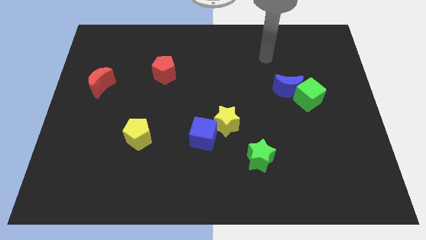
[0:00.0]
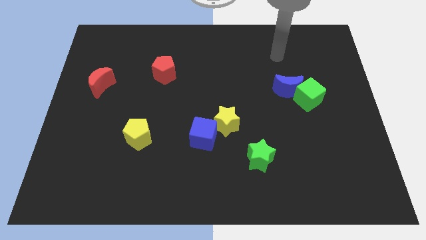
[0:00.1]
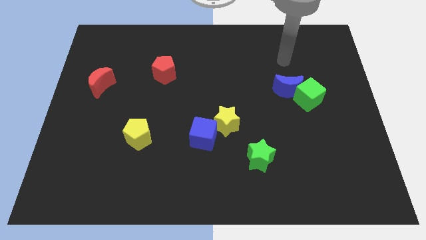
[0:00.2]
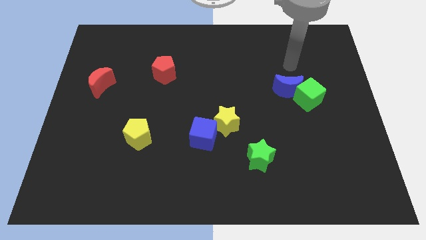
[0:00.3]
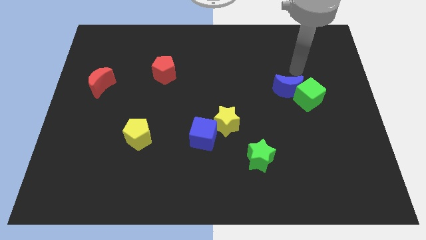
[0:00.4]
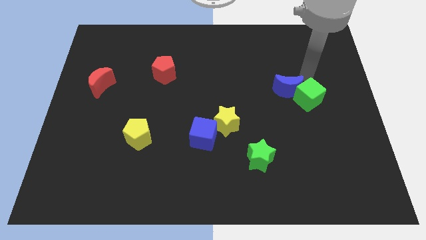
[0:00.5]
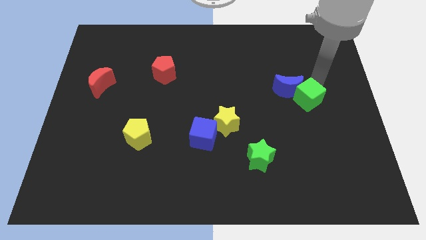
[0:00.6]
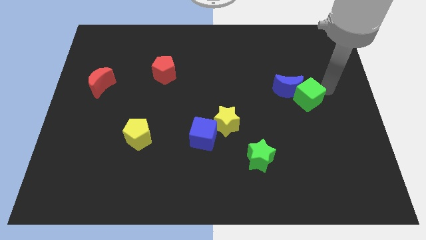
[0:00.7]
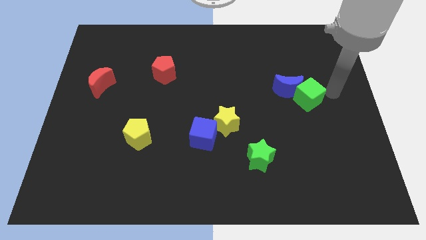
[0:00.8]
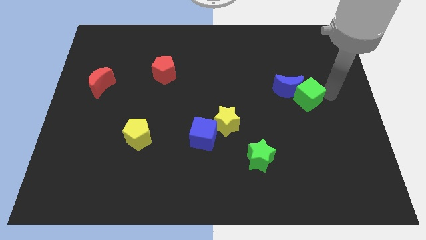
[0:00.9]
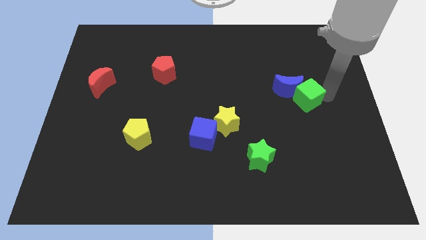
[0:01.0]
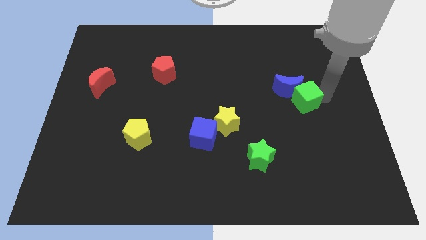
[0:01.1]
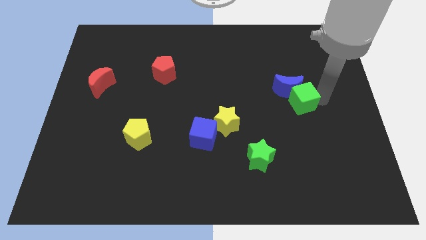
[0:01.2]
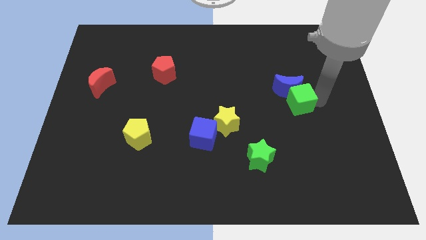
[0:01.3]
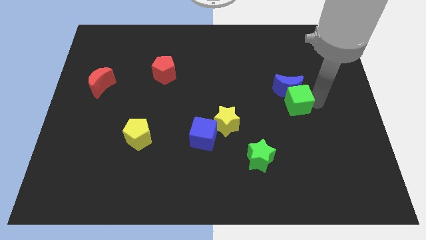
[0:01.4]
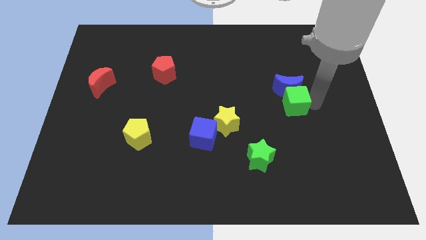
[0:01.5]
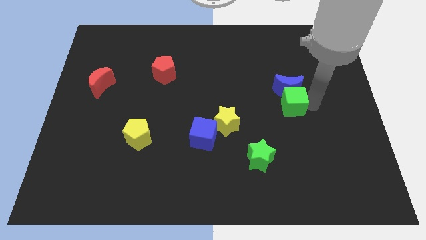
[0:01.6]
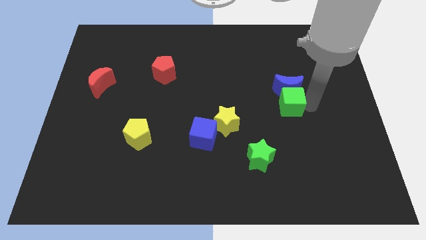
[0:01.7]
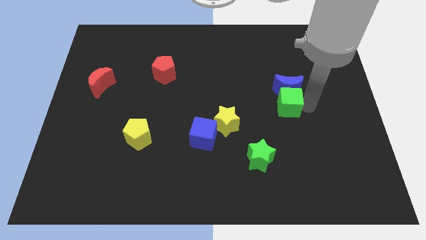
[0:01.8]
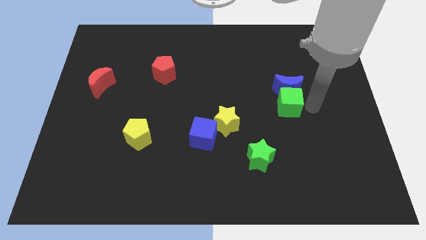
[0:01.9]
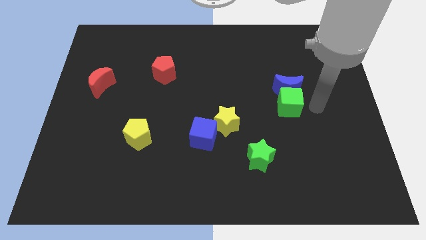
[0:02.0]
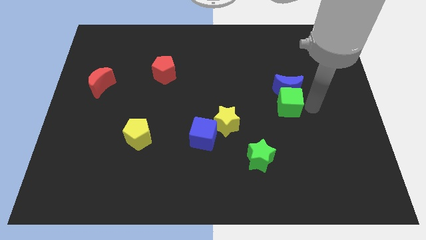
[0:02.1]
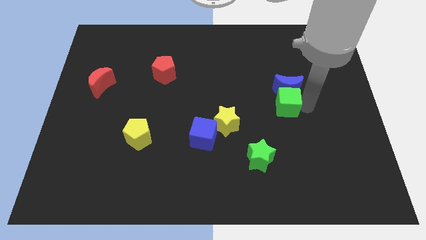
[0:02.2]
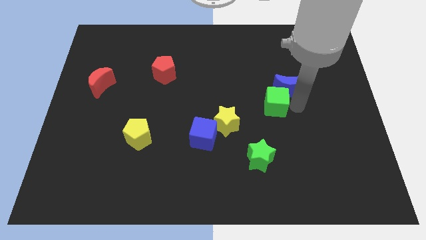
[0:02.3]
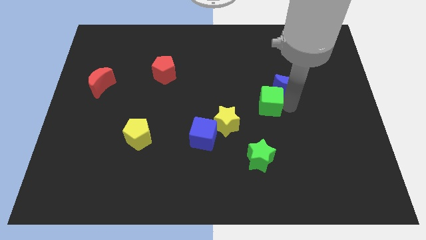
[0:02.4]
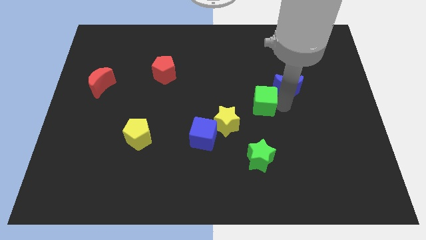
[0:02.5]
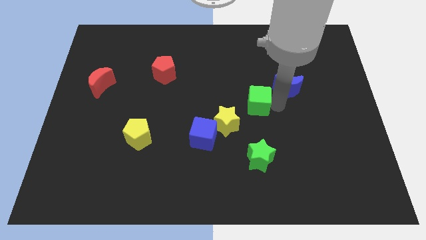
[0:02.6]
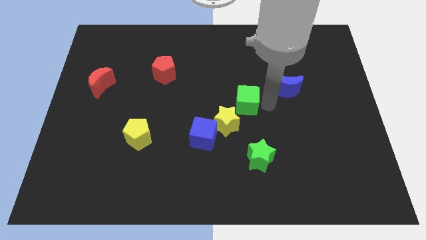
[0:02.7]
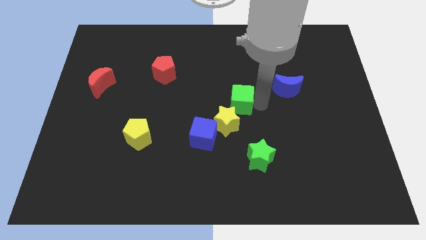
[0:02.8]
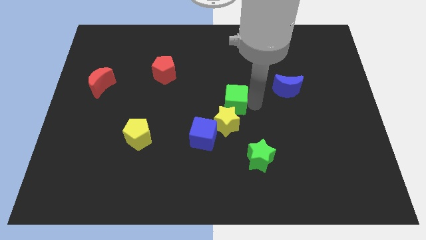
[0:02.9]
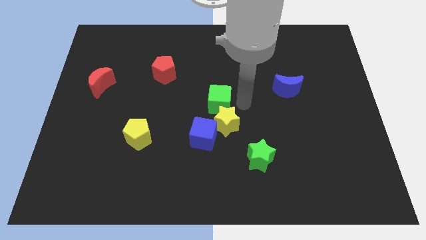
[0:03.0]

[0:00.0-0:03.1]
slide the green cube to the left

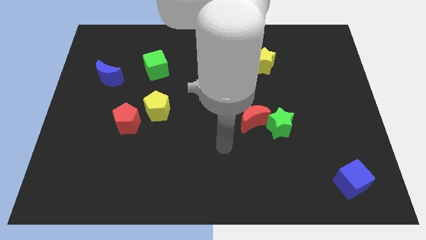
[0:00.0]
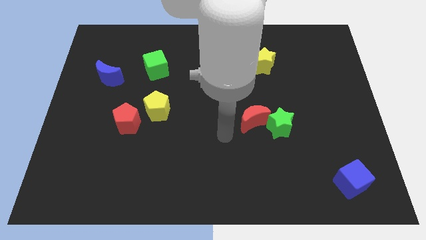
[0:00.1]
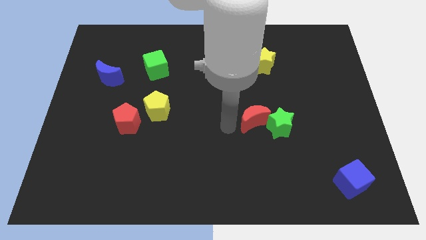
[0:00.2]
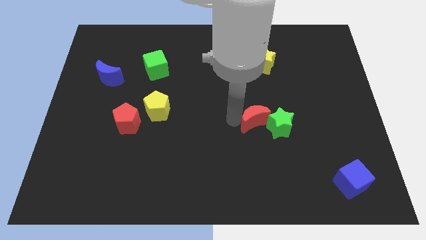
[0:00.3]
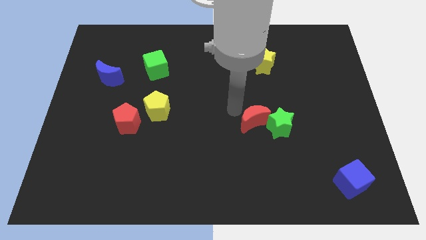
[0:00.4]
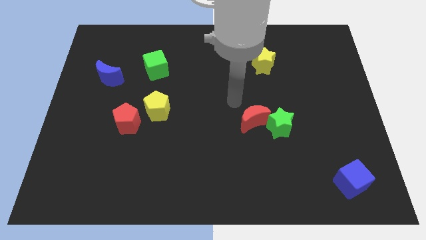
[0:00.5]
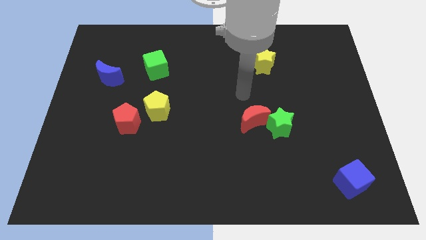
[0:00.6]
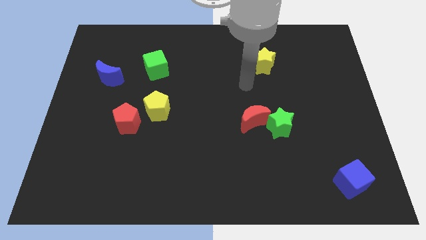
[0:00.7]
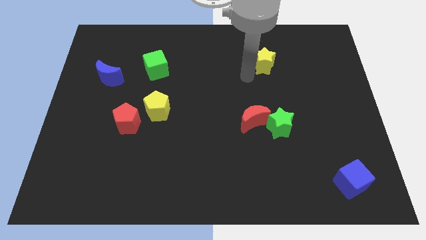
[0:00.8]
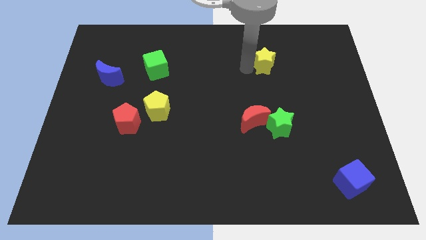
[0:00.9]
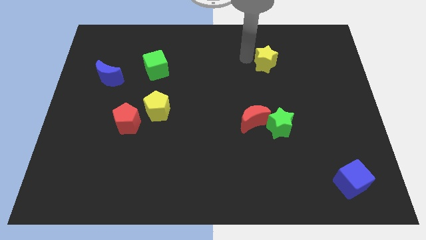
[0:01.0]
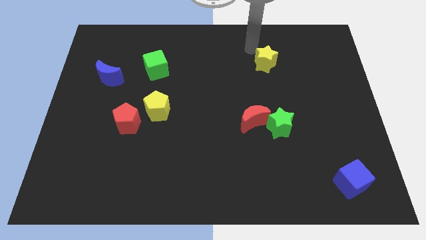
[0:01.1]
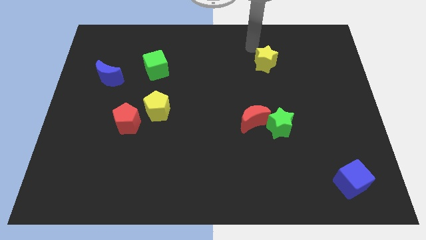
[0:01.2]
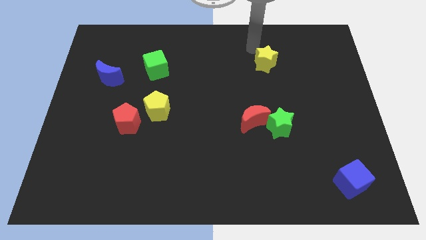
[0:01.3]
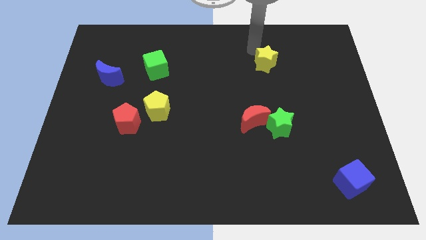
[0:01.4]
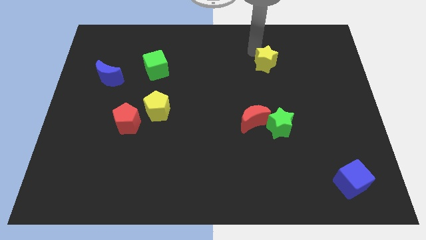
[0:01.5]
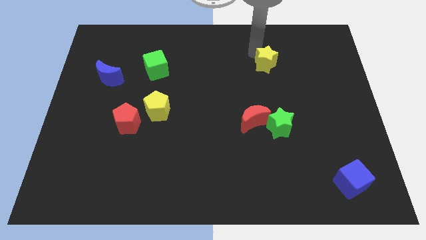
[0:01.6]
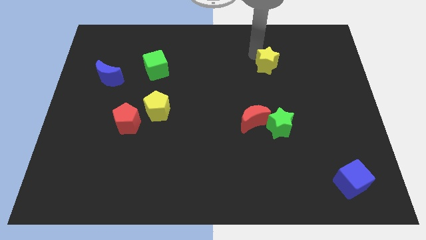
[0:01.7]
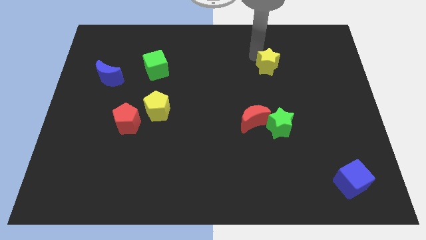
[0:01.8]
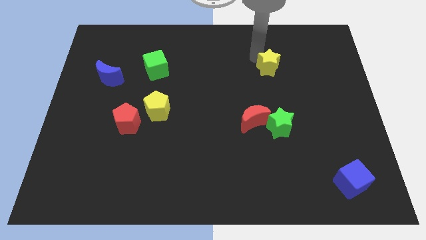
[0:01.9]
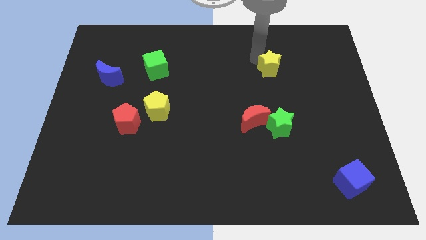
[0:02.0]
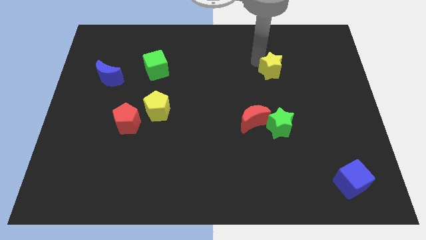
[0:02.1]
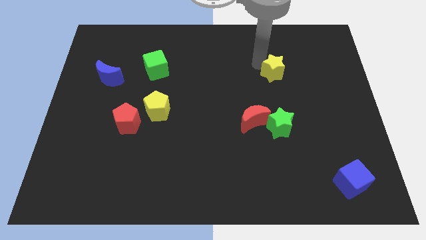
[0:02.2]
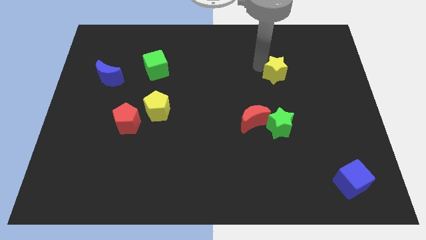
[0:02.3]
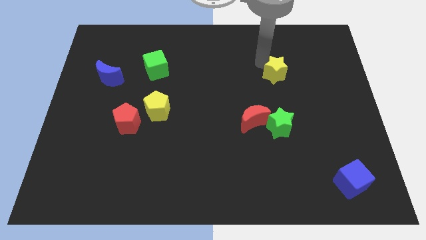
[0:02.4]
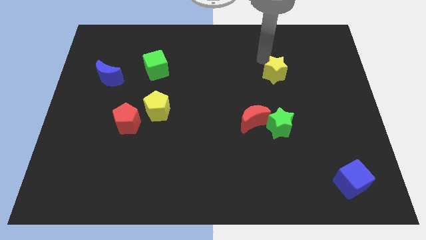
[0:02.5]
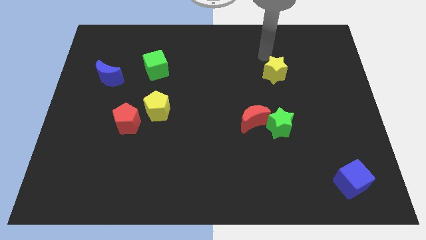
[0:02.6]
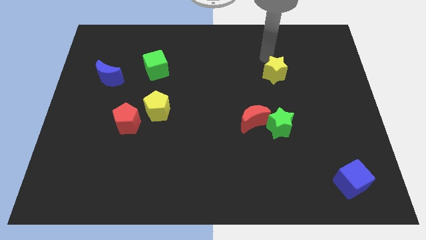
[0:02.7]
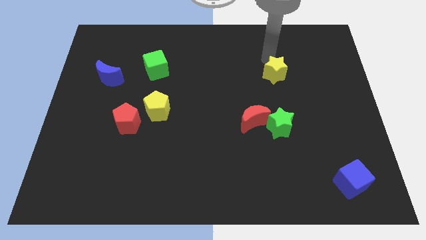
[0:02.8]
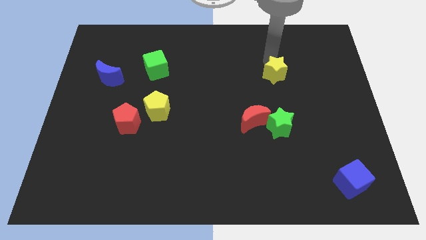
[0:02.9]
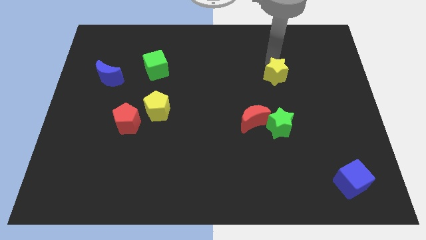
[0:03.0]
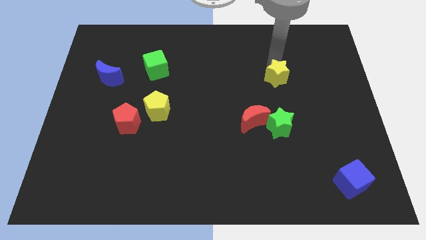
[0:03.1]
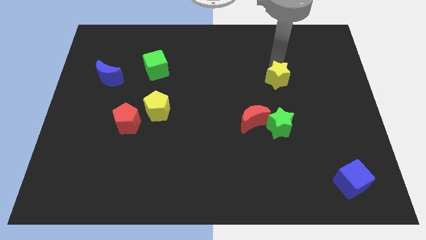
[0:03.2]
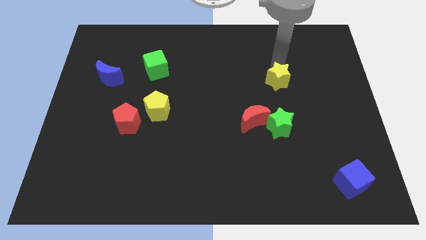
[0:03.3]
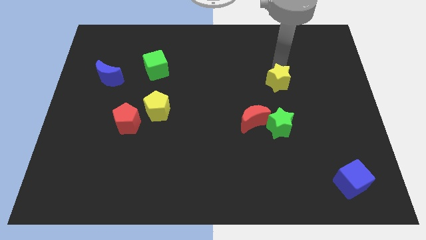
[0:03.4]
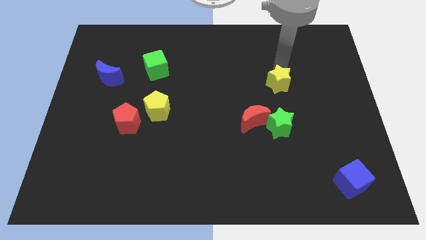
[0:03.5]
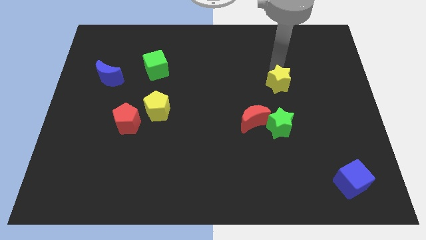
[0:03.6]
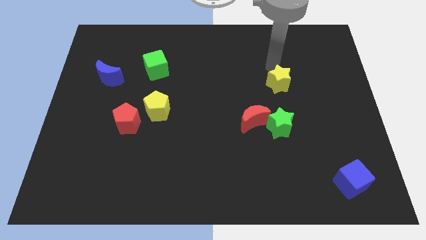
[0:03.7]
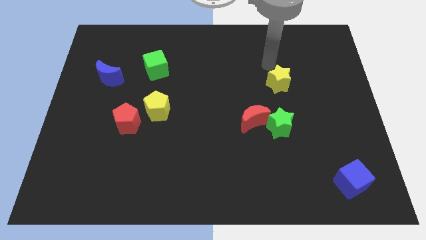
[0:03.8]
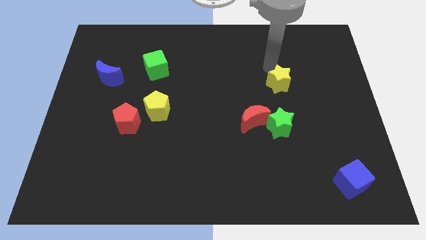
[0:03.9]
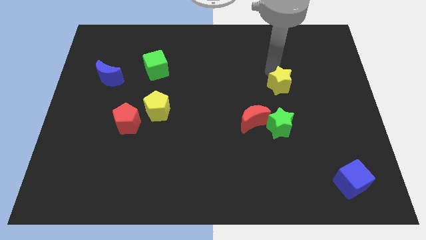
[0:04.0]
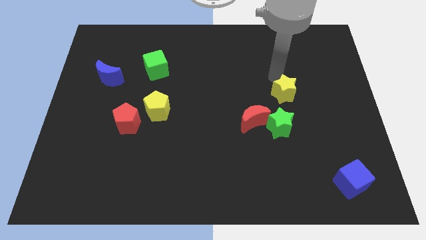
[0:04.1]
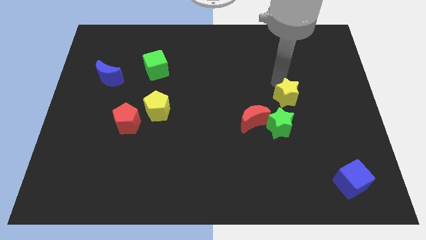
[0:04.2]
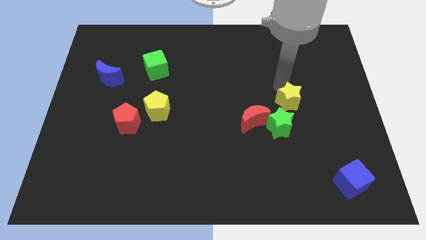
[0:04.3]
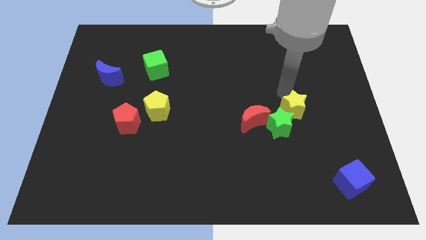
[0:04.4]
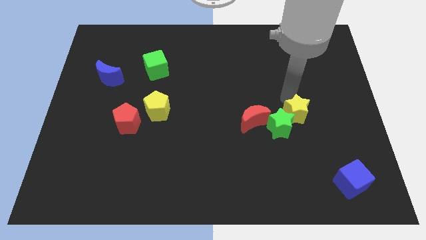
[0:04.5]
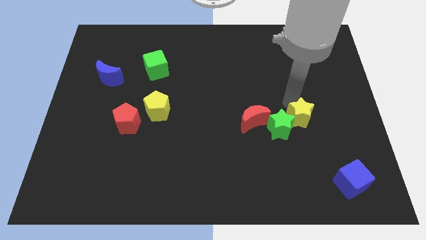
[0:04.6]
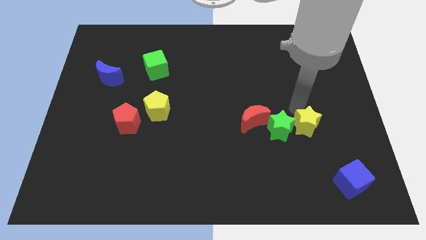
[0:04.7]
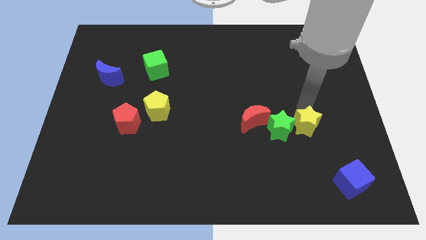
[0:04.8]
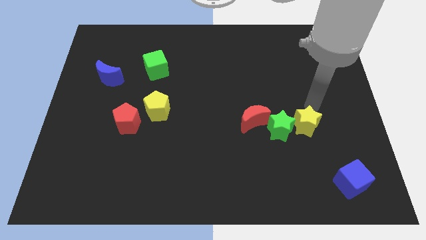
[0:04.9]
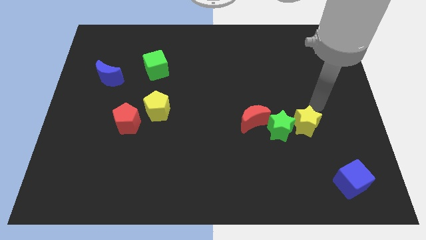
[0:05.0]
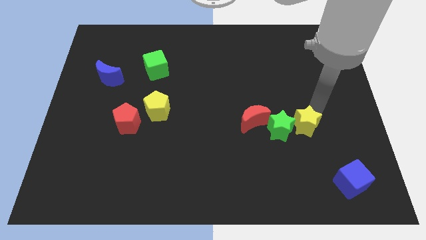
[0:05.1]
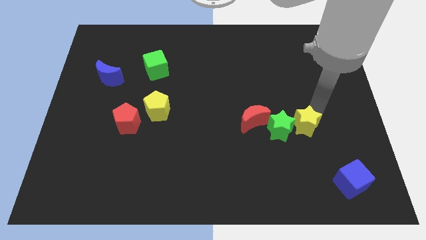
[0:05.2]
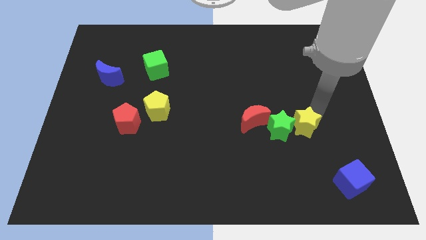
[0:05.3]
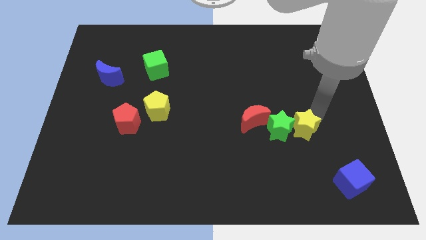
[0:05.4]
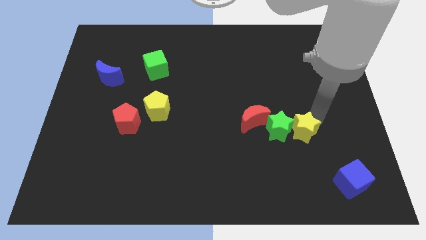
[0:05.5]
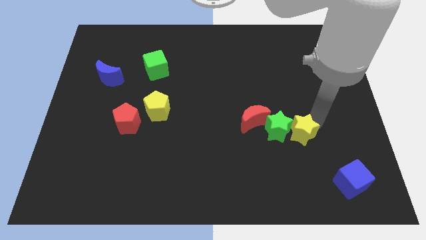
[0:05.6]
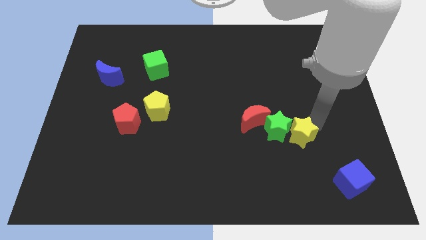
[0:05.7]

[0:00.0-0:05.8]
slide the yellow star downwards
